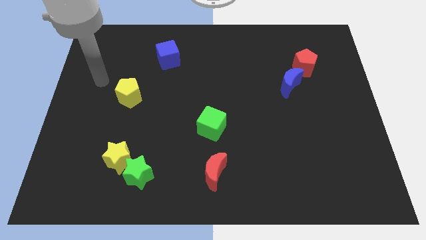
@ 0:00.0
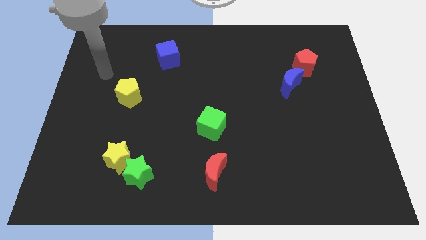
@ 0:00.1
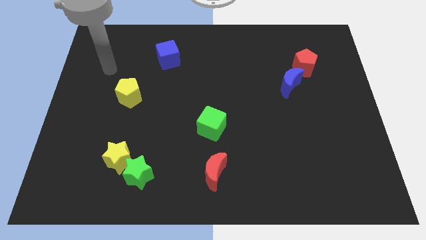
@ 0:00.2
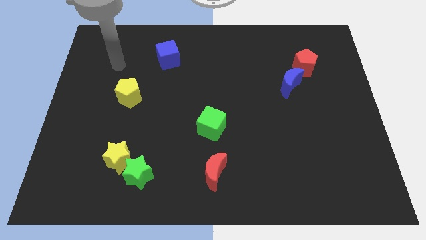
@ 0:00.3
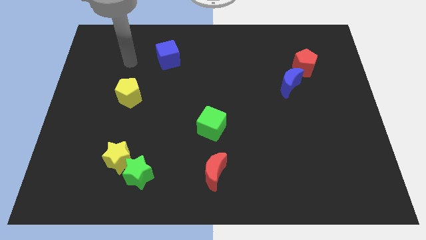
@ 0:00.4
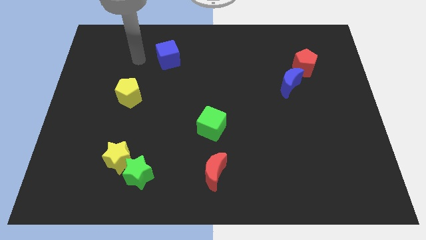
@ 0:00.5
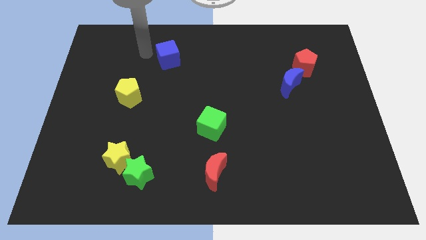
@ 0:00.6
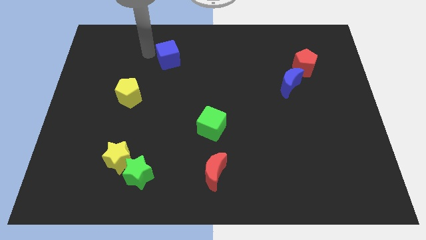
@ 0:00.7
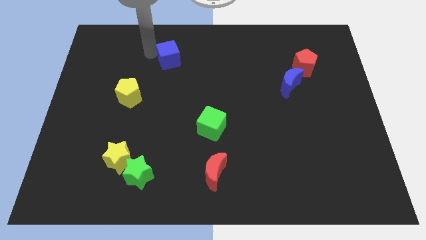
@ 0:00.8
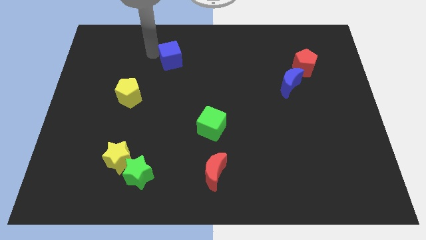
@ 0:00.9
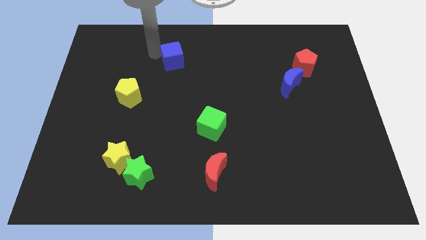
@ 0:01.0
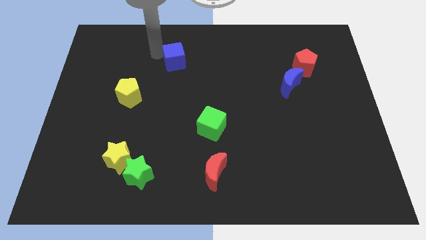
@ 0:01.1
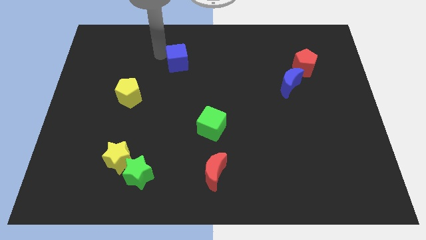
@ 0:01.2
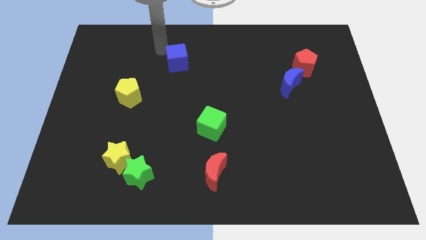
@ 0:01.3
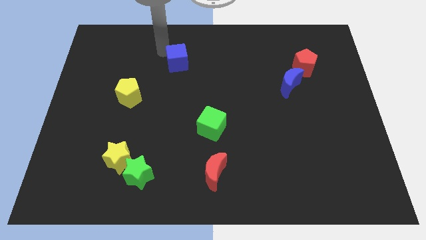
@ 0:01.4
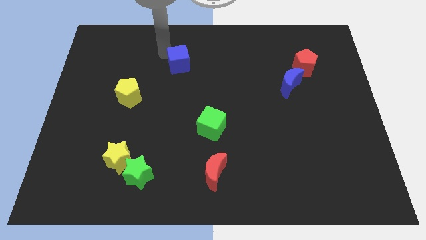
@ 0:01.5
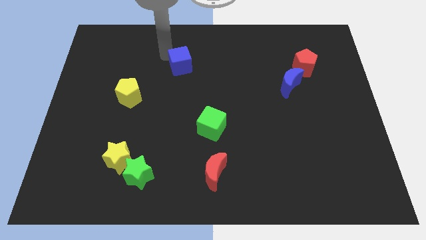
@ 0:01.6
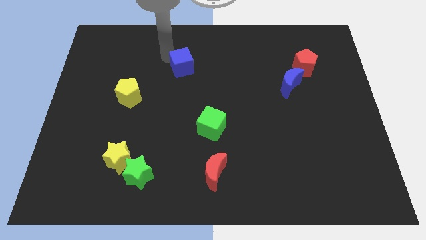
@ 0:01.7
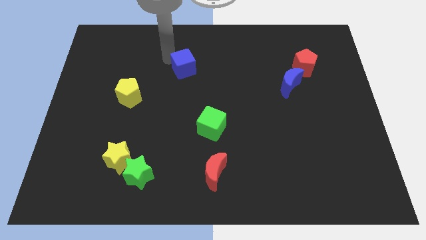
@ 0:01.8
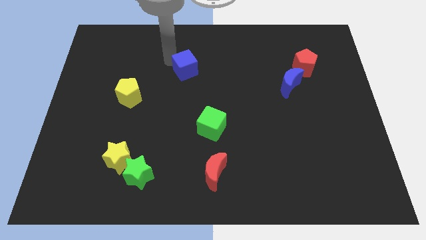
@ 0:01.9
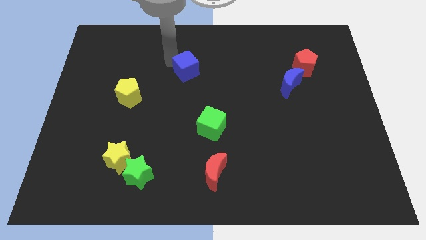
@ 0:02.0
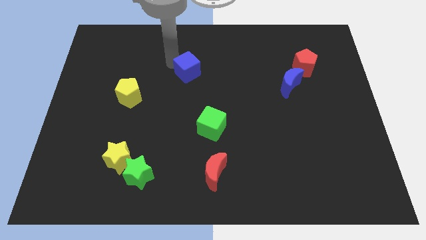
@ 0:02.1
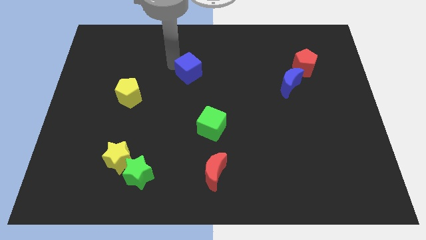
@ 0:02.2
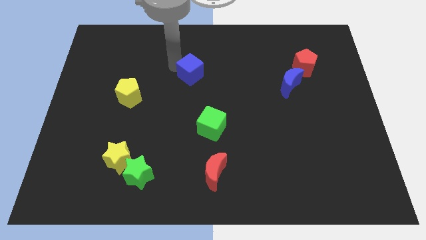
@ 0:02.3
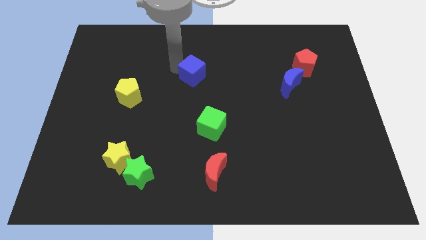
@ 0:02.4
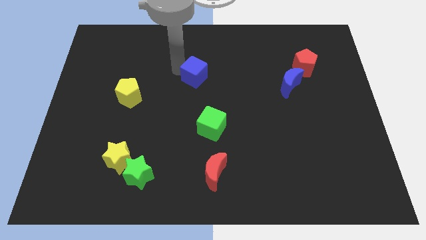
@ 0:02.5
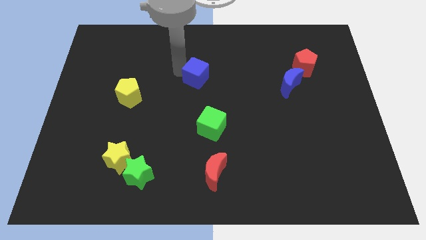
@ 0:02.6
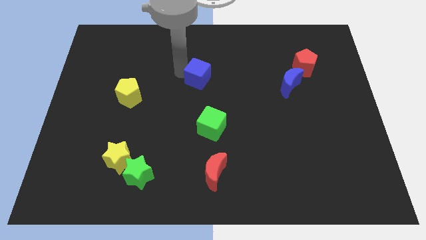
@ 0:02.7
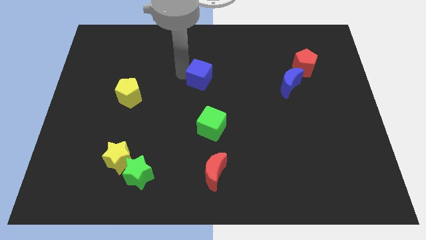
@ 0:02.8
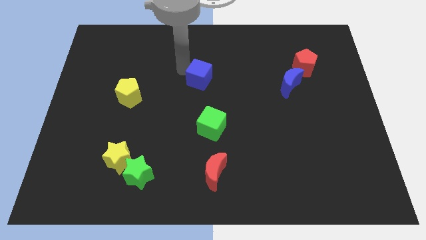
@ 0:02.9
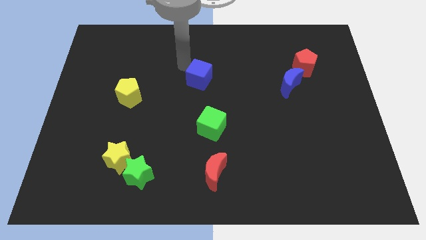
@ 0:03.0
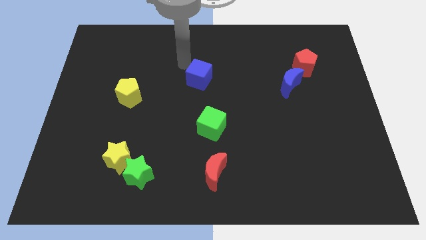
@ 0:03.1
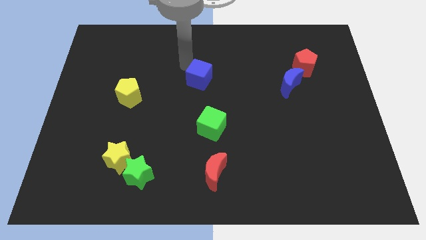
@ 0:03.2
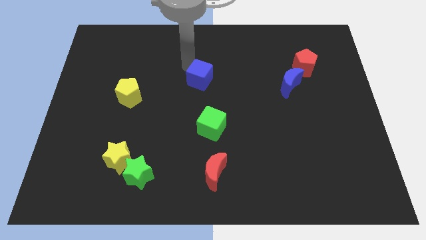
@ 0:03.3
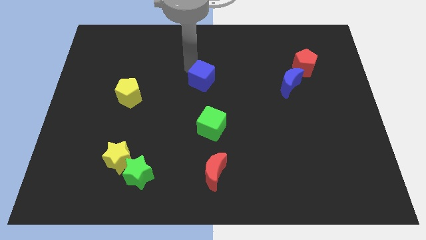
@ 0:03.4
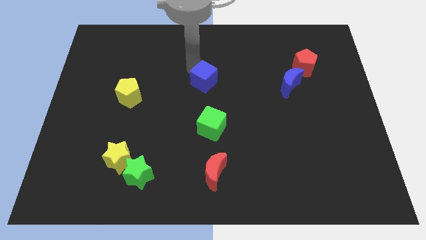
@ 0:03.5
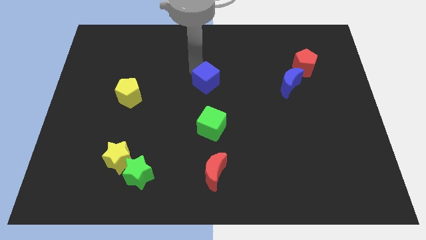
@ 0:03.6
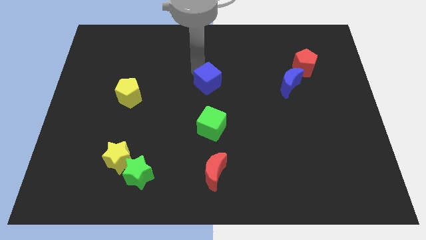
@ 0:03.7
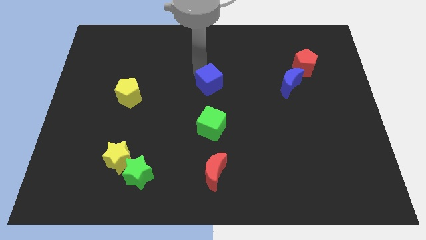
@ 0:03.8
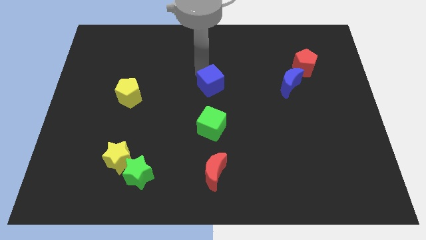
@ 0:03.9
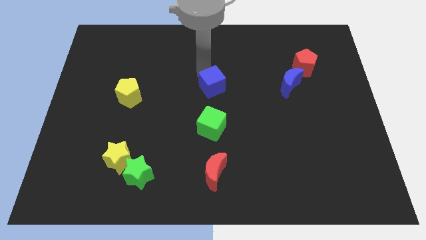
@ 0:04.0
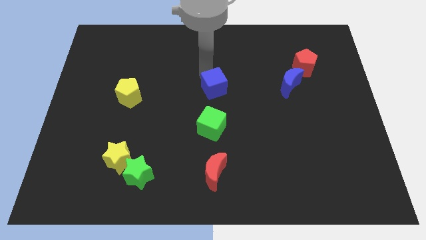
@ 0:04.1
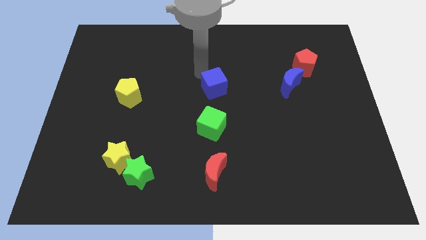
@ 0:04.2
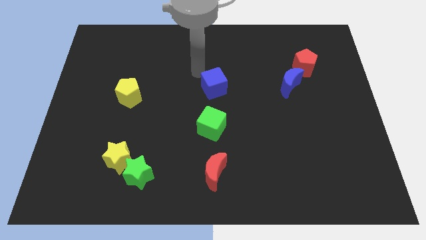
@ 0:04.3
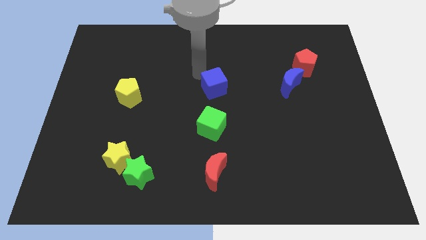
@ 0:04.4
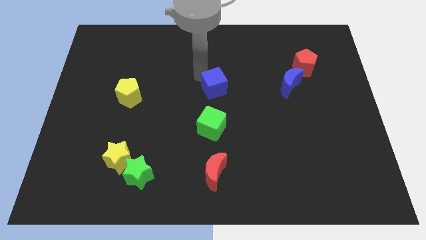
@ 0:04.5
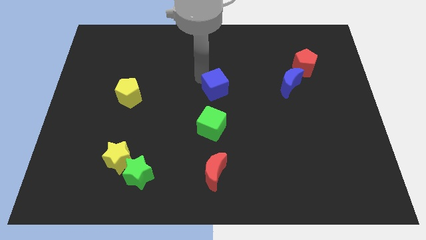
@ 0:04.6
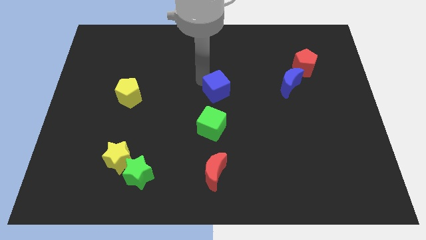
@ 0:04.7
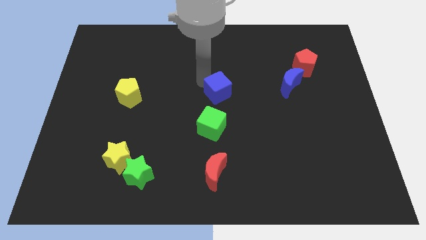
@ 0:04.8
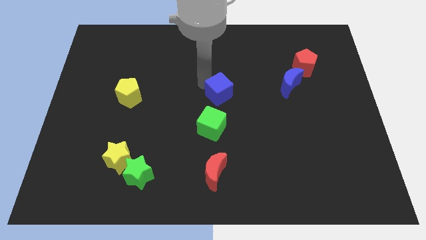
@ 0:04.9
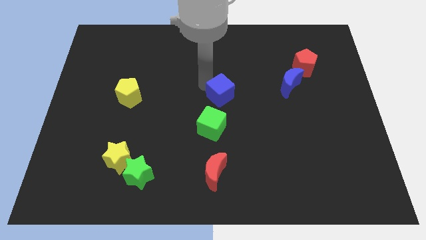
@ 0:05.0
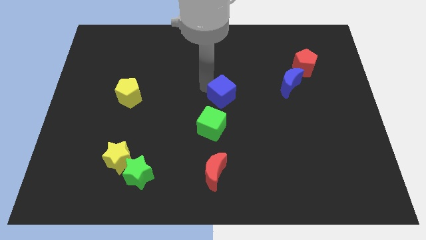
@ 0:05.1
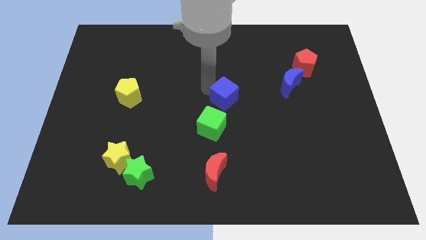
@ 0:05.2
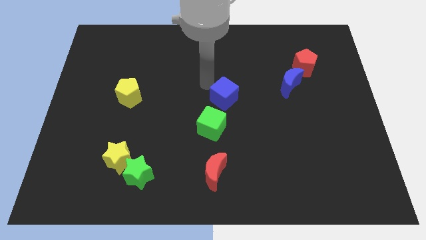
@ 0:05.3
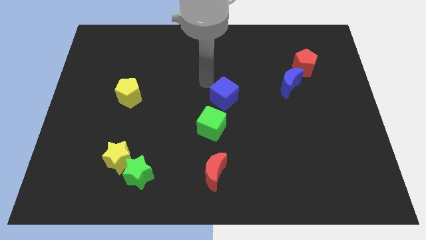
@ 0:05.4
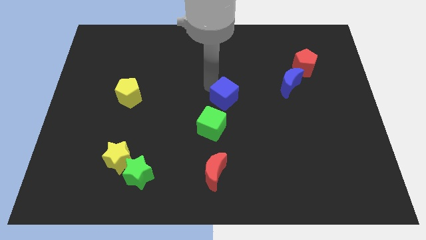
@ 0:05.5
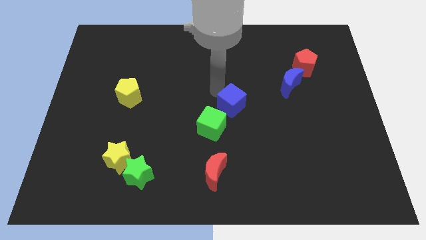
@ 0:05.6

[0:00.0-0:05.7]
slide the blue cube down and to the right

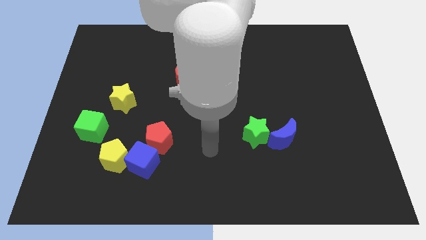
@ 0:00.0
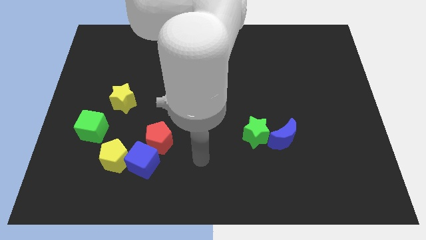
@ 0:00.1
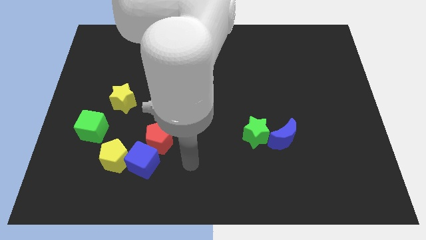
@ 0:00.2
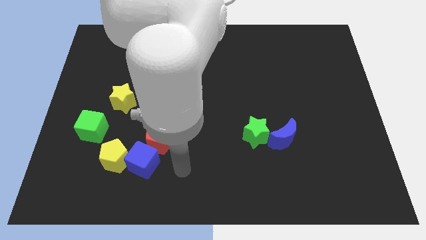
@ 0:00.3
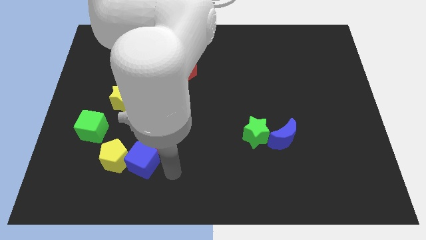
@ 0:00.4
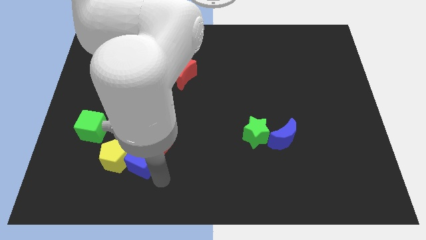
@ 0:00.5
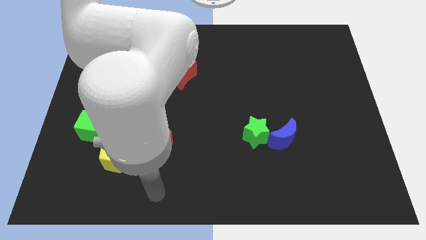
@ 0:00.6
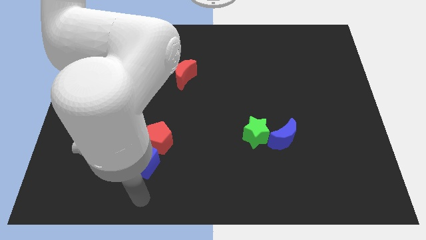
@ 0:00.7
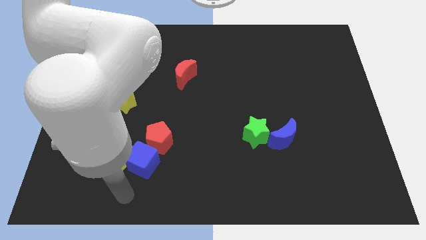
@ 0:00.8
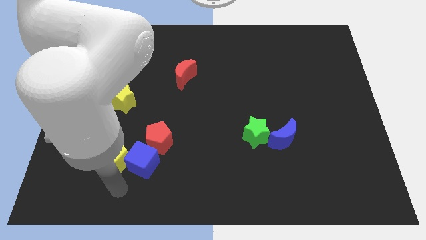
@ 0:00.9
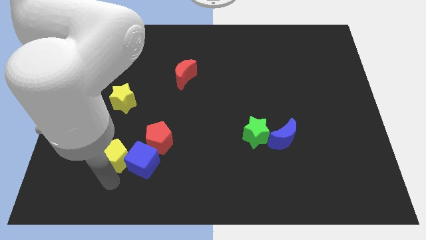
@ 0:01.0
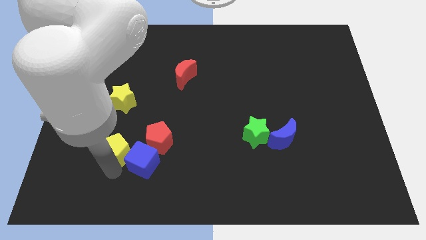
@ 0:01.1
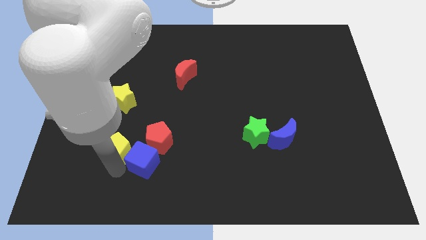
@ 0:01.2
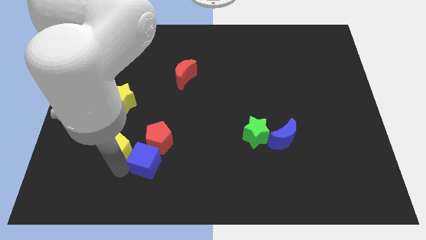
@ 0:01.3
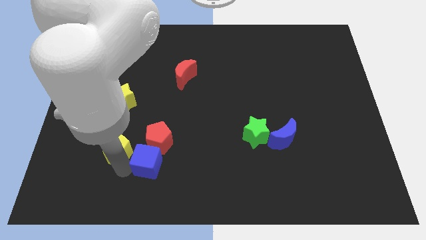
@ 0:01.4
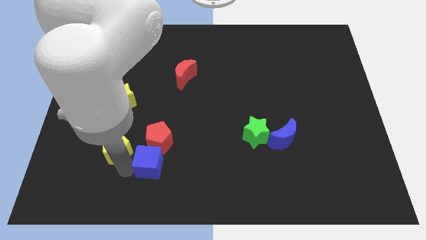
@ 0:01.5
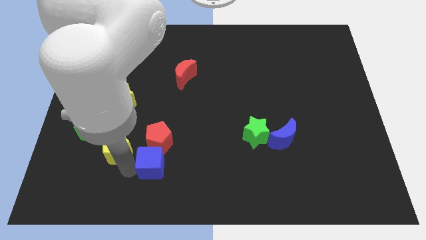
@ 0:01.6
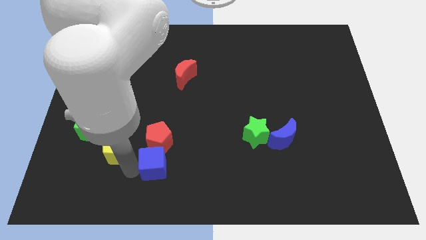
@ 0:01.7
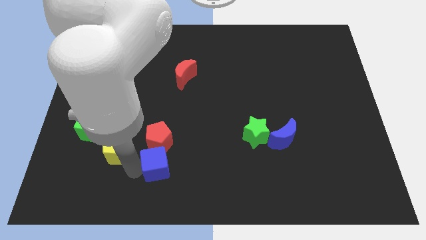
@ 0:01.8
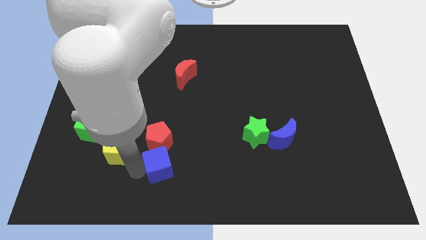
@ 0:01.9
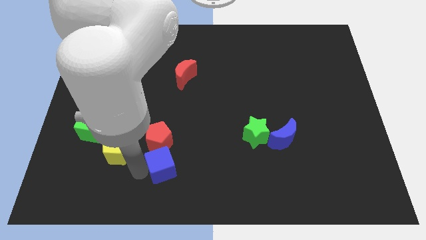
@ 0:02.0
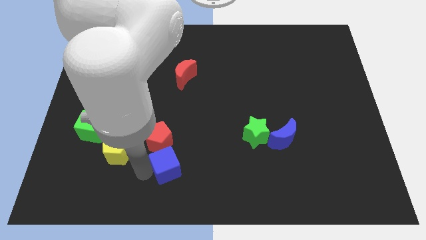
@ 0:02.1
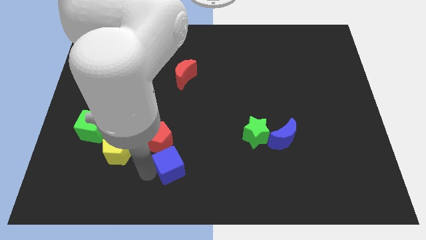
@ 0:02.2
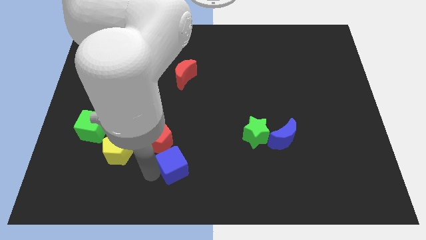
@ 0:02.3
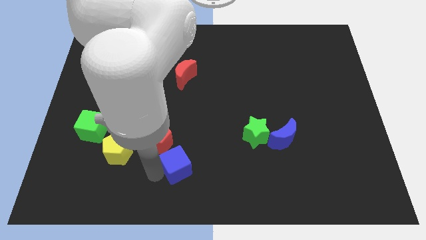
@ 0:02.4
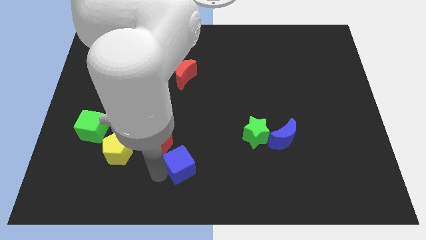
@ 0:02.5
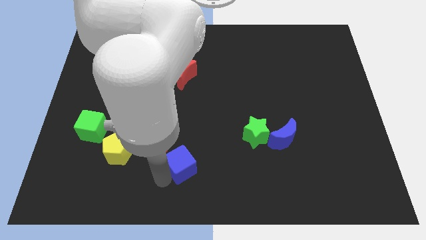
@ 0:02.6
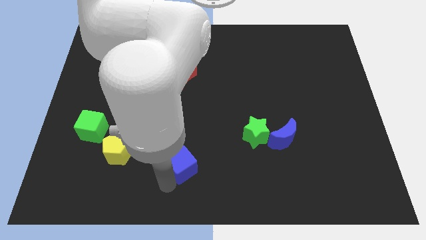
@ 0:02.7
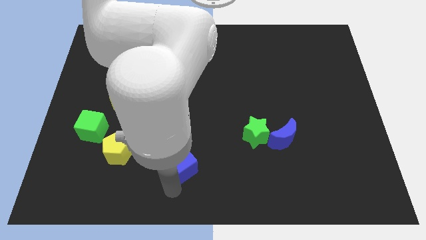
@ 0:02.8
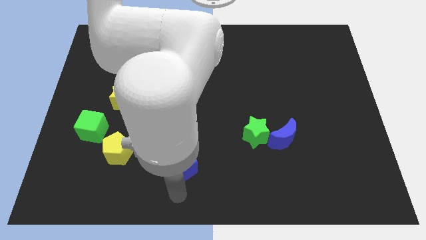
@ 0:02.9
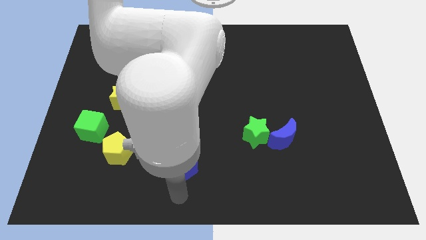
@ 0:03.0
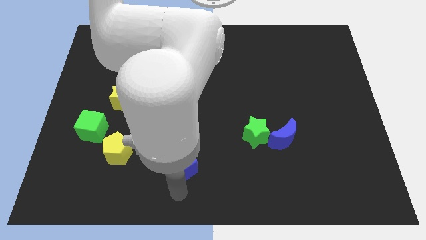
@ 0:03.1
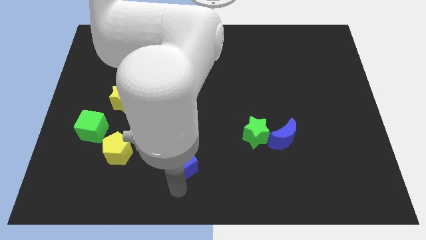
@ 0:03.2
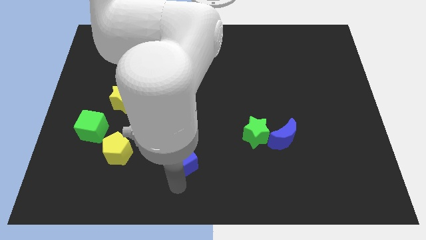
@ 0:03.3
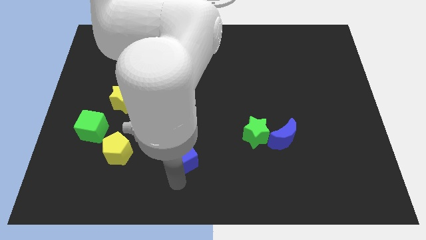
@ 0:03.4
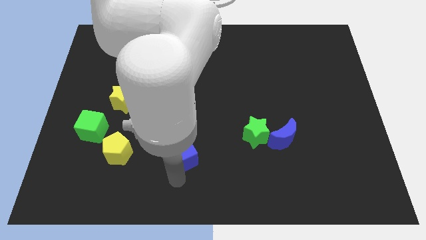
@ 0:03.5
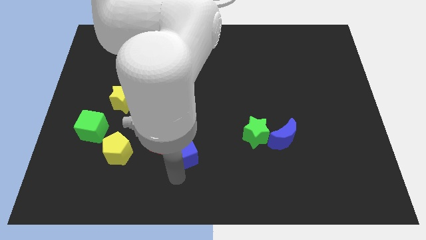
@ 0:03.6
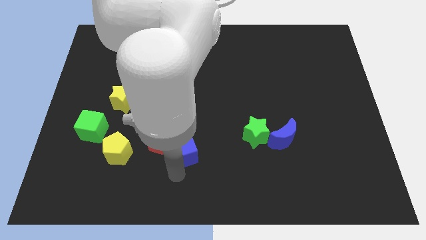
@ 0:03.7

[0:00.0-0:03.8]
slide the blue cube upwards and then right a bit
